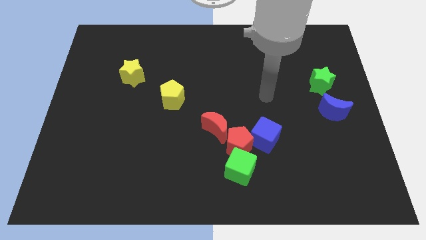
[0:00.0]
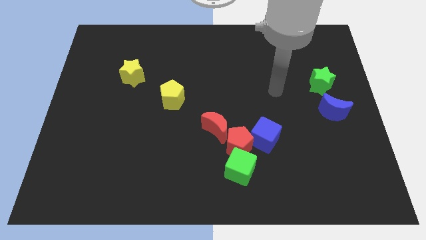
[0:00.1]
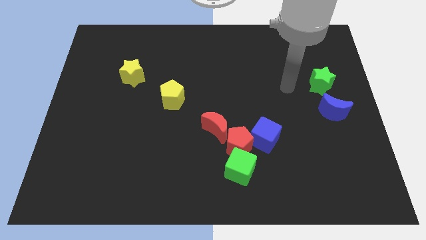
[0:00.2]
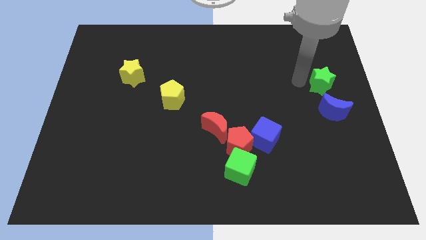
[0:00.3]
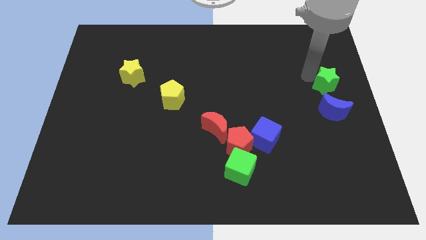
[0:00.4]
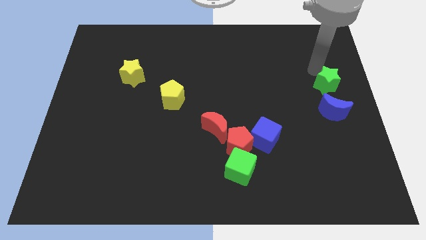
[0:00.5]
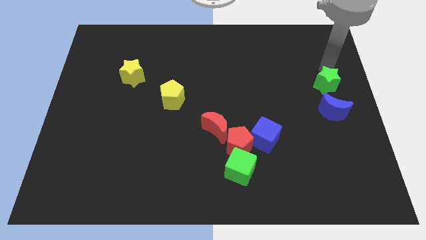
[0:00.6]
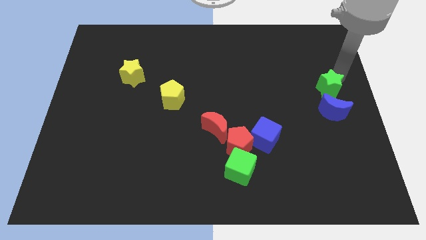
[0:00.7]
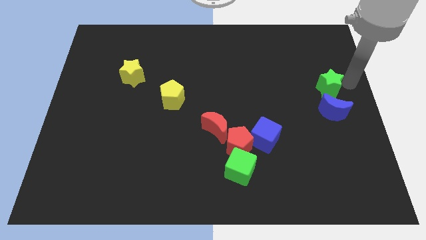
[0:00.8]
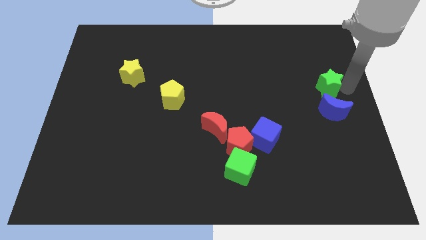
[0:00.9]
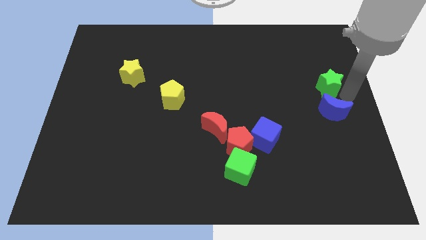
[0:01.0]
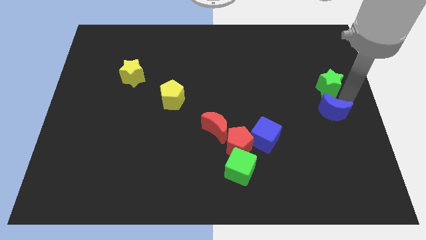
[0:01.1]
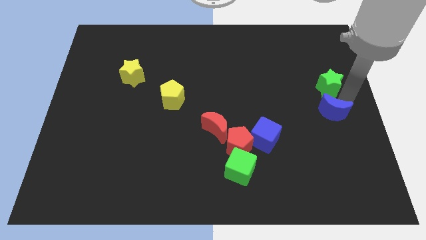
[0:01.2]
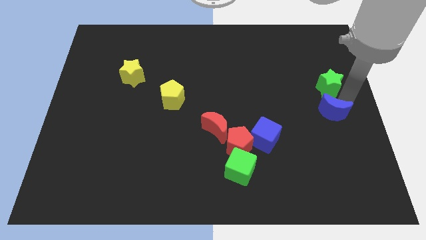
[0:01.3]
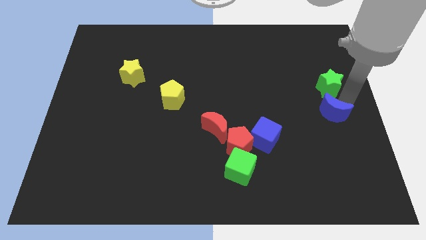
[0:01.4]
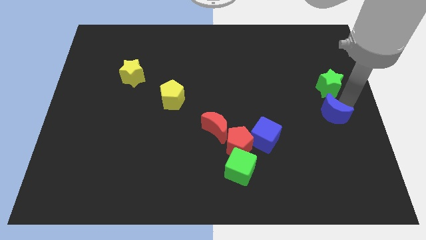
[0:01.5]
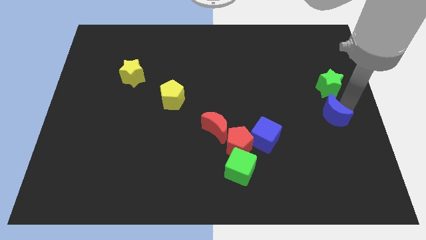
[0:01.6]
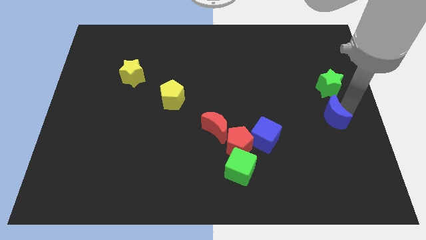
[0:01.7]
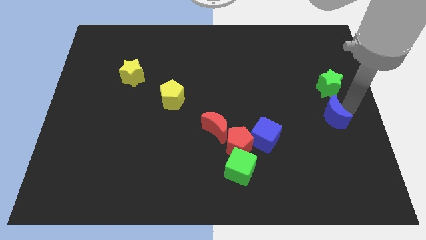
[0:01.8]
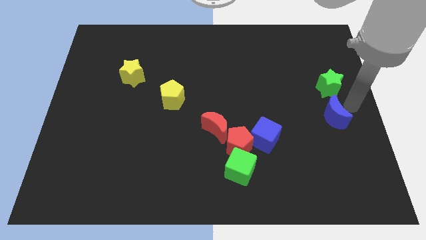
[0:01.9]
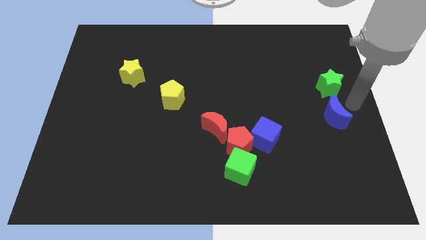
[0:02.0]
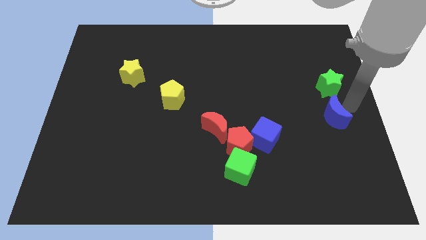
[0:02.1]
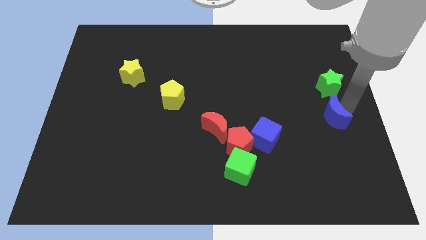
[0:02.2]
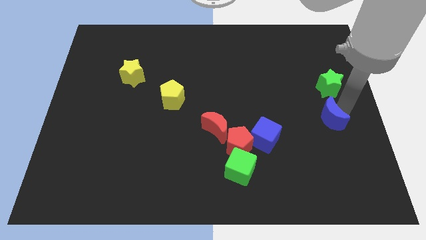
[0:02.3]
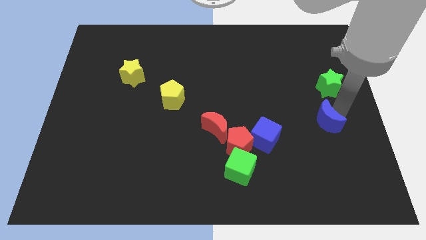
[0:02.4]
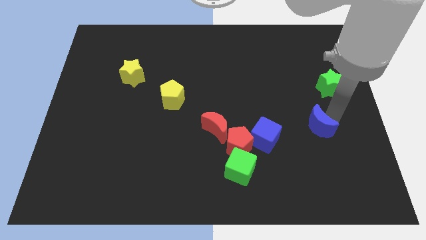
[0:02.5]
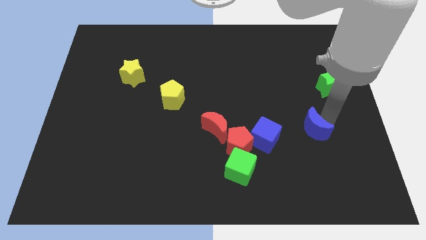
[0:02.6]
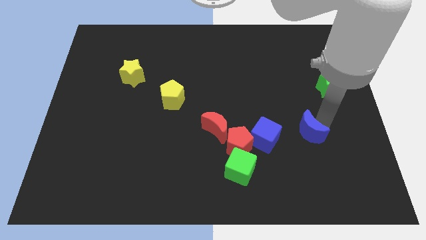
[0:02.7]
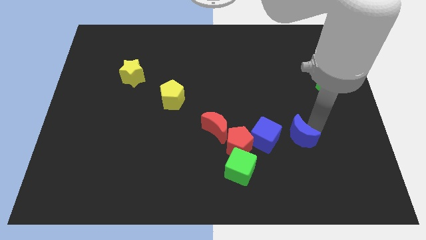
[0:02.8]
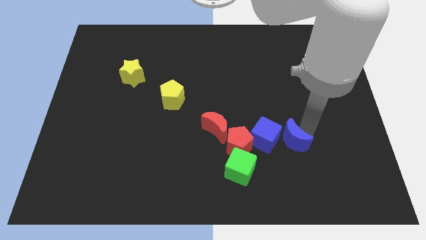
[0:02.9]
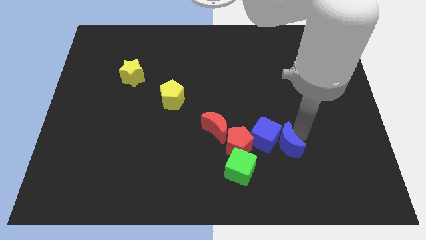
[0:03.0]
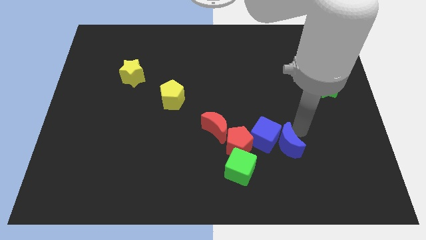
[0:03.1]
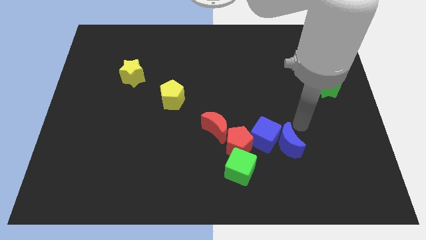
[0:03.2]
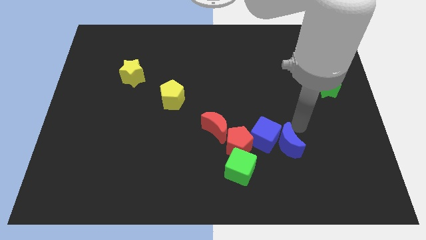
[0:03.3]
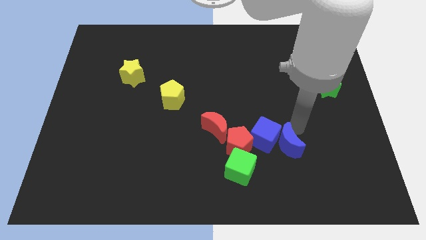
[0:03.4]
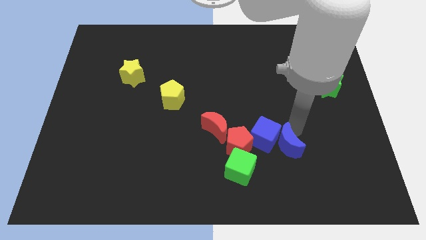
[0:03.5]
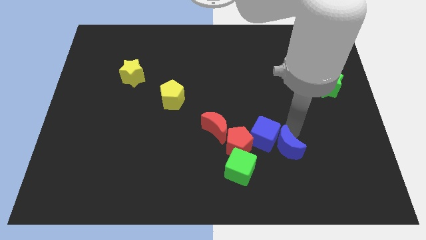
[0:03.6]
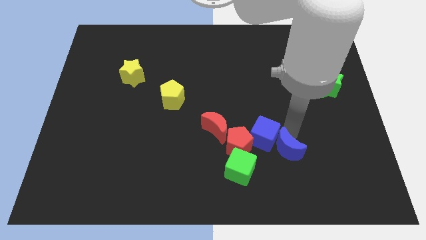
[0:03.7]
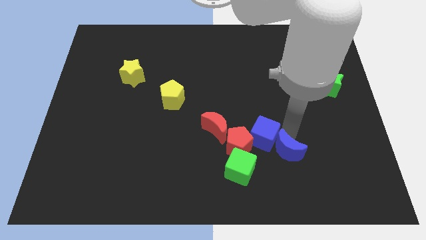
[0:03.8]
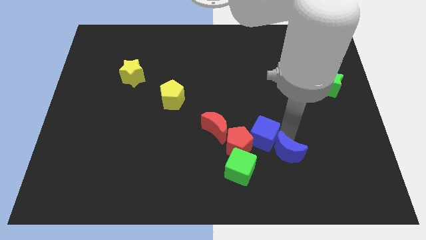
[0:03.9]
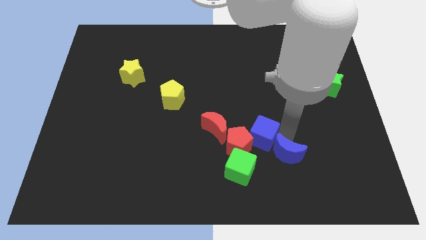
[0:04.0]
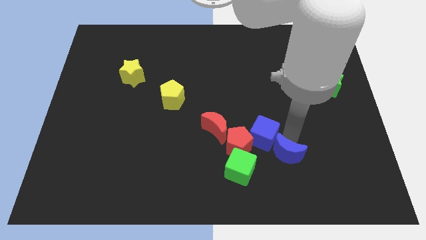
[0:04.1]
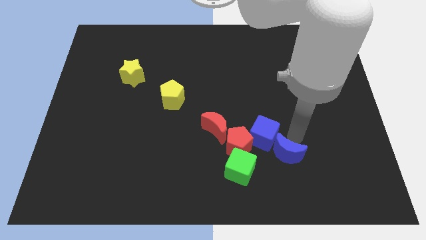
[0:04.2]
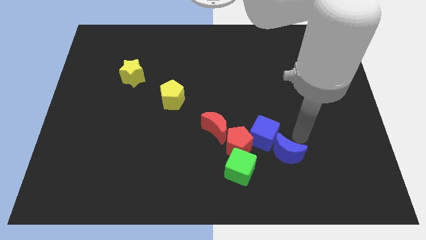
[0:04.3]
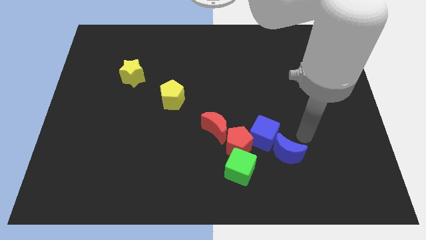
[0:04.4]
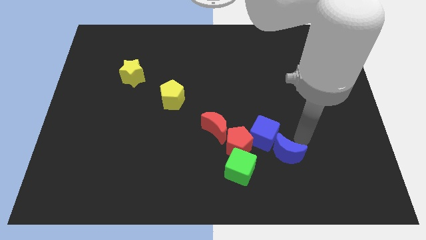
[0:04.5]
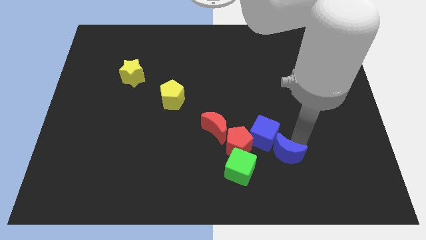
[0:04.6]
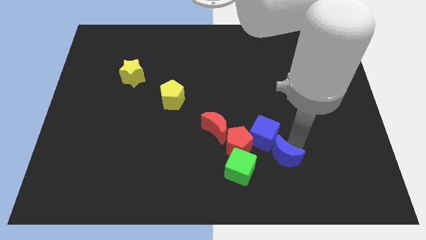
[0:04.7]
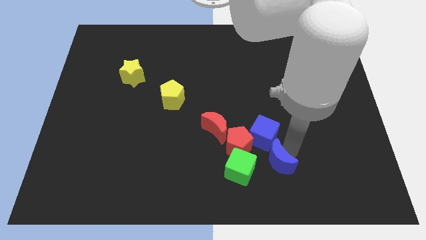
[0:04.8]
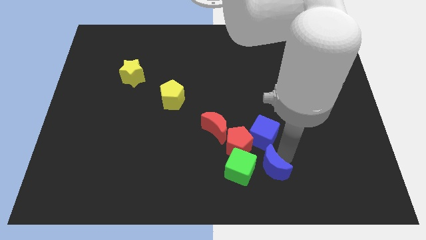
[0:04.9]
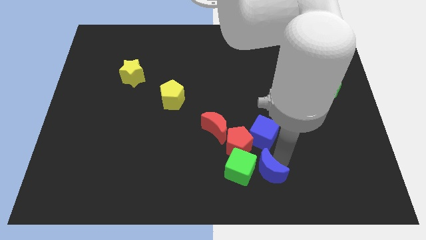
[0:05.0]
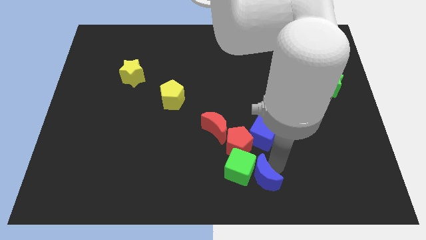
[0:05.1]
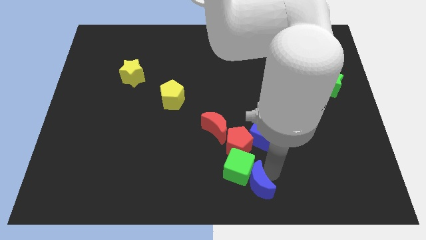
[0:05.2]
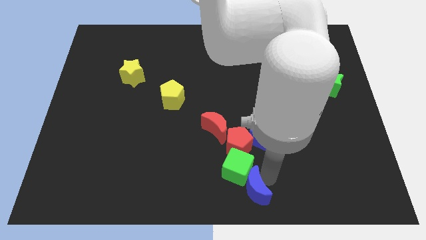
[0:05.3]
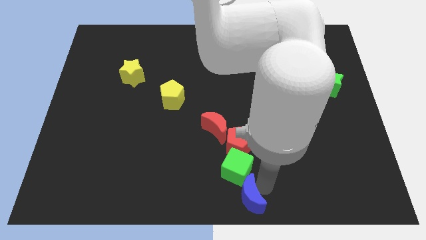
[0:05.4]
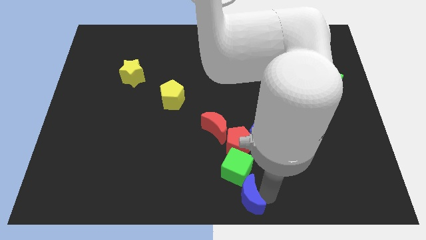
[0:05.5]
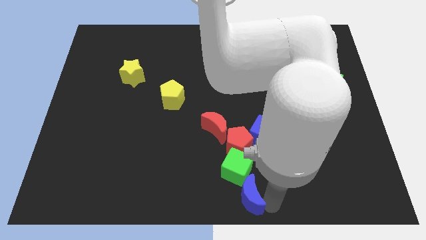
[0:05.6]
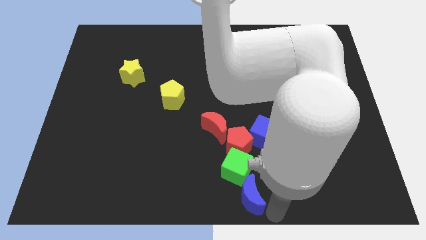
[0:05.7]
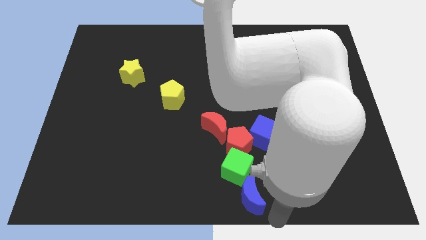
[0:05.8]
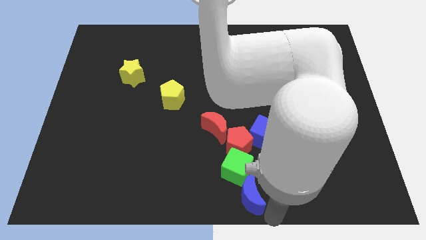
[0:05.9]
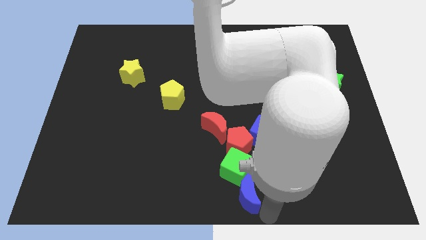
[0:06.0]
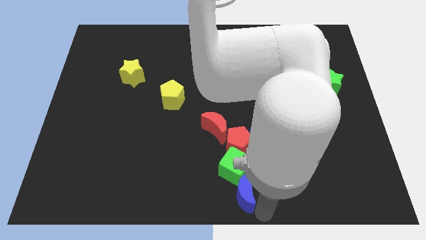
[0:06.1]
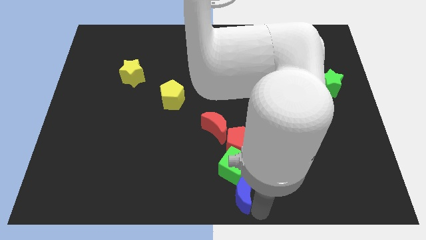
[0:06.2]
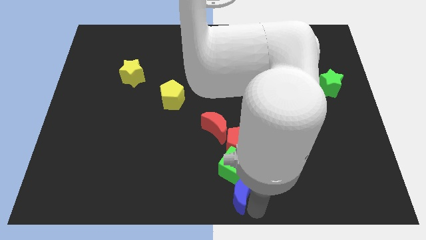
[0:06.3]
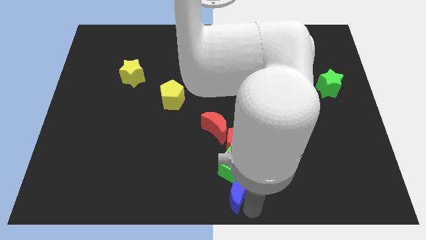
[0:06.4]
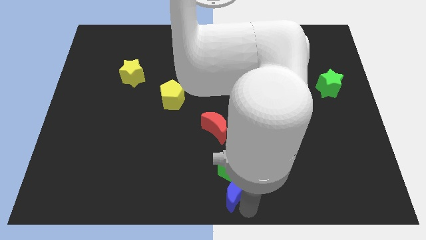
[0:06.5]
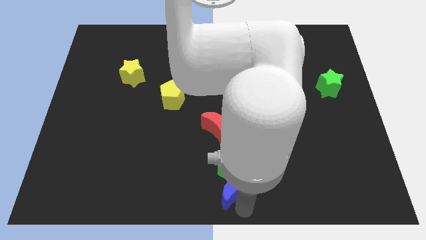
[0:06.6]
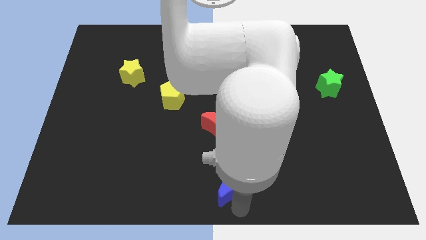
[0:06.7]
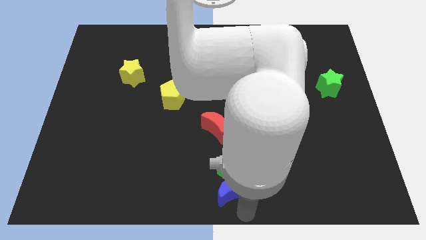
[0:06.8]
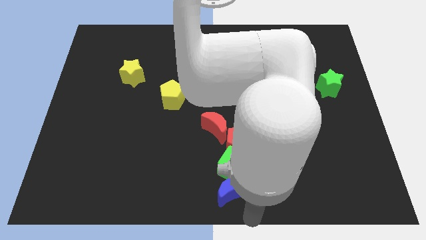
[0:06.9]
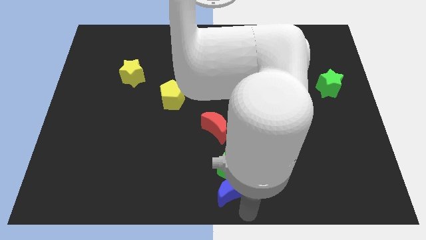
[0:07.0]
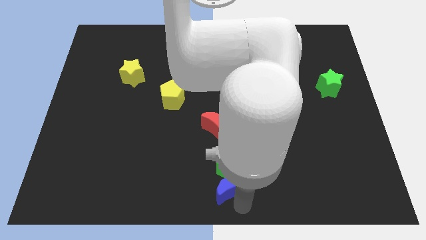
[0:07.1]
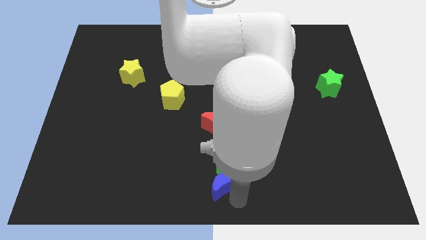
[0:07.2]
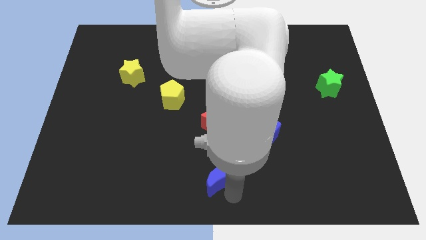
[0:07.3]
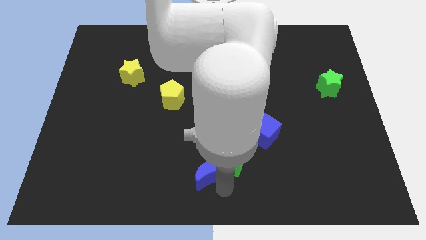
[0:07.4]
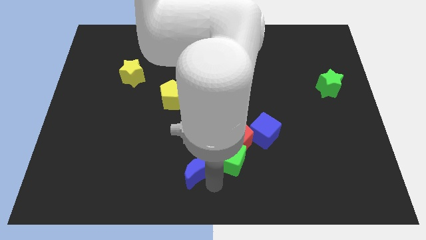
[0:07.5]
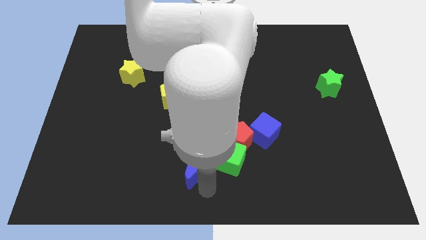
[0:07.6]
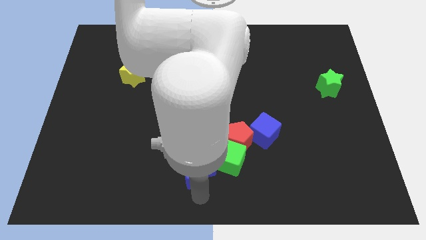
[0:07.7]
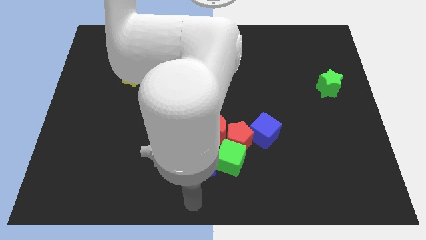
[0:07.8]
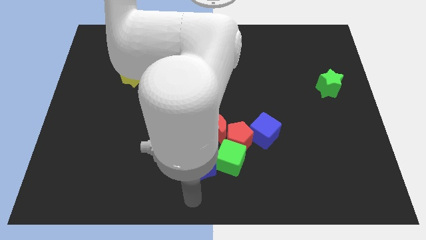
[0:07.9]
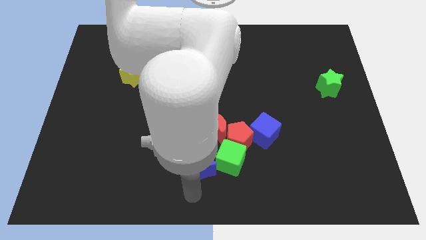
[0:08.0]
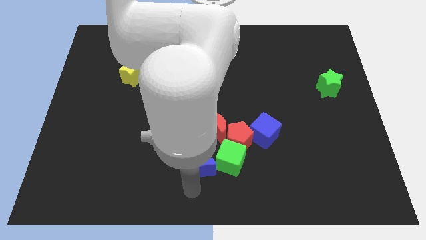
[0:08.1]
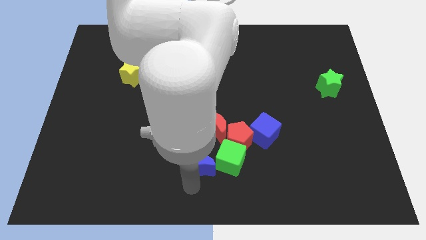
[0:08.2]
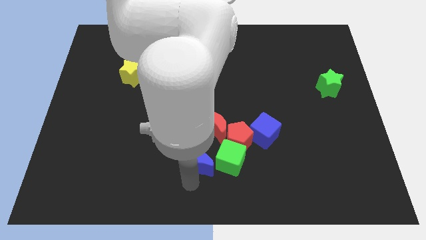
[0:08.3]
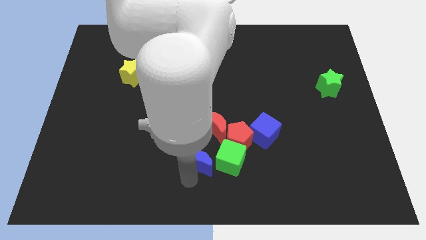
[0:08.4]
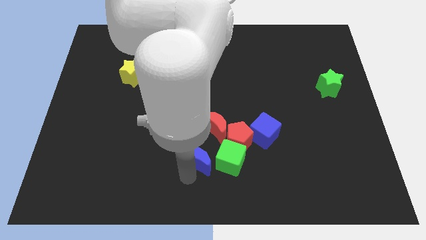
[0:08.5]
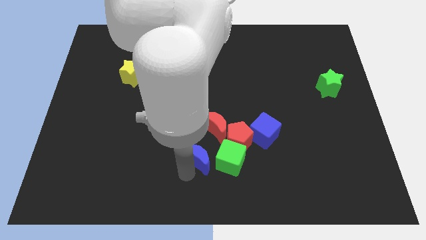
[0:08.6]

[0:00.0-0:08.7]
slide the blue moon to the top left side of the green cube
